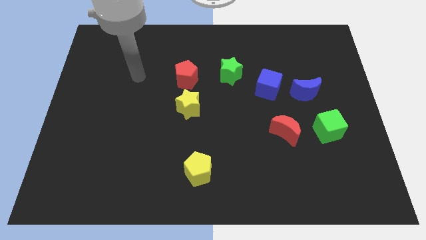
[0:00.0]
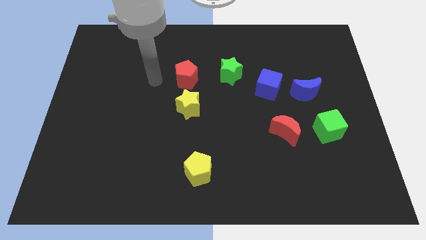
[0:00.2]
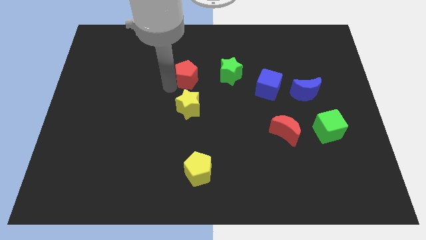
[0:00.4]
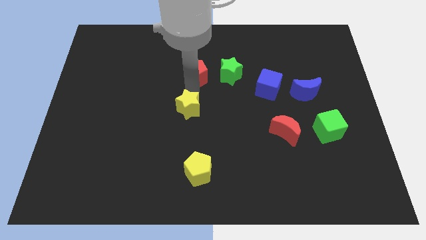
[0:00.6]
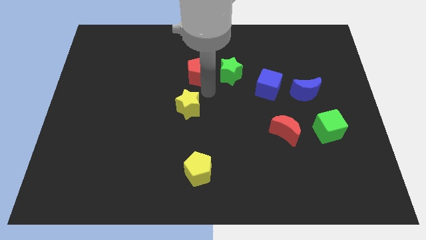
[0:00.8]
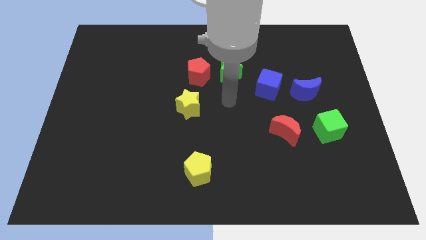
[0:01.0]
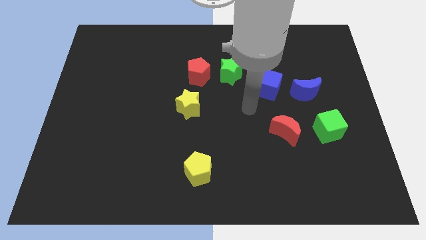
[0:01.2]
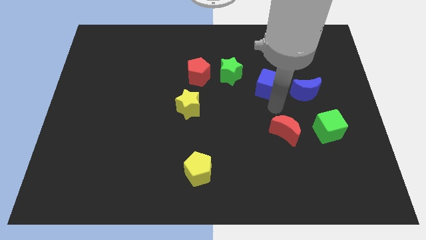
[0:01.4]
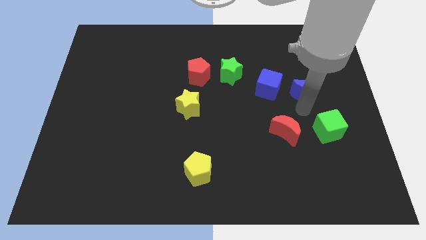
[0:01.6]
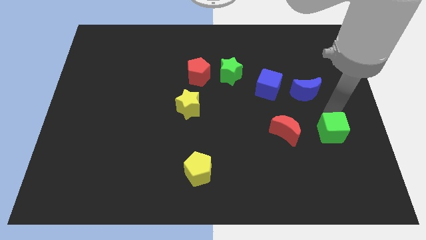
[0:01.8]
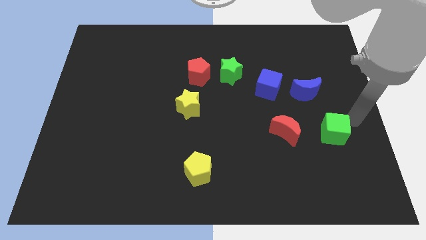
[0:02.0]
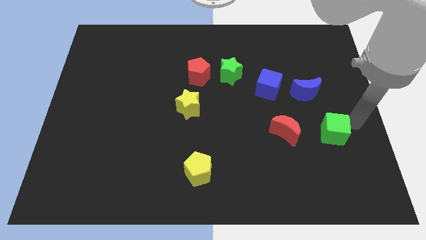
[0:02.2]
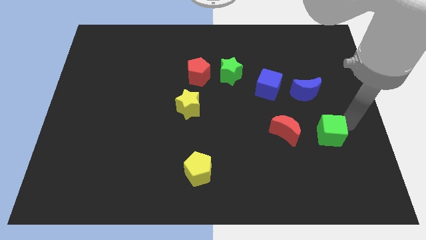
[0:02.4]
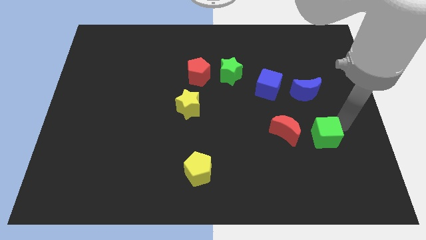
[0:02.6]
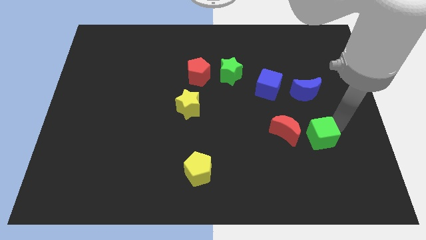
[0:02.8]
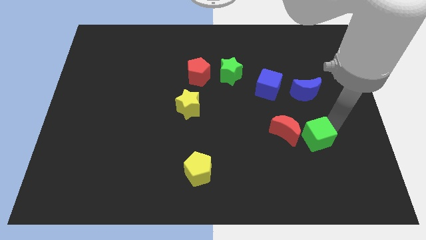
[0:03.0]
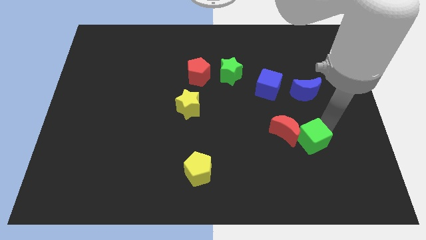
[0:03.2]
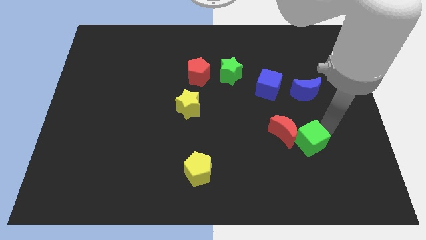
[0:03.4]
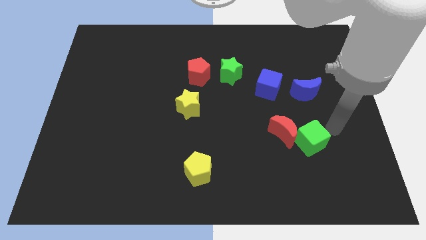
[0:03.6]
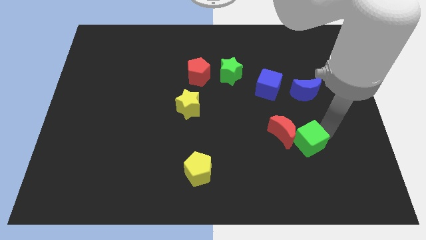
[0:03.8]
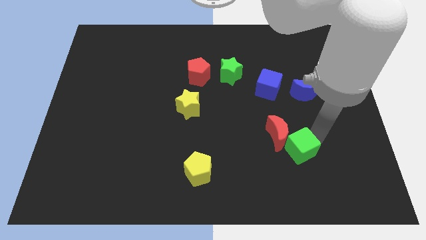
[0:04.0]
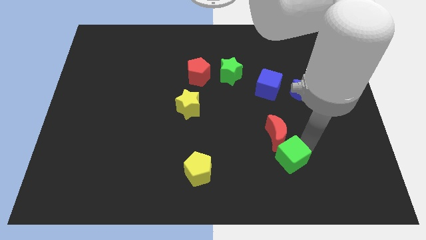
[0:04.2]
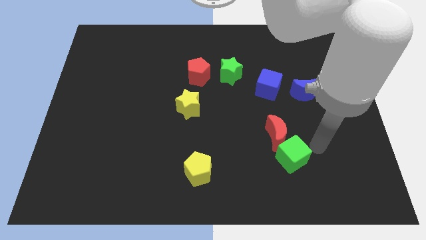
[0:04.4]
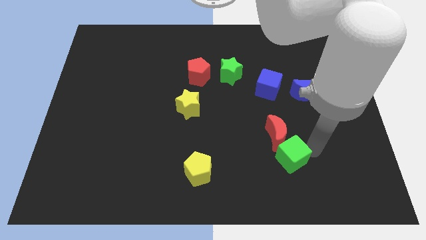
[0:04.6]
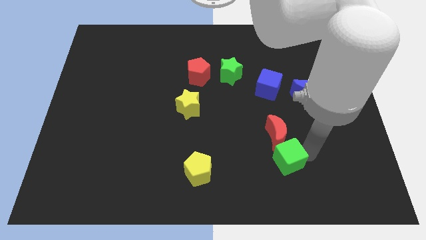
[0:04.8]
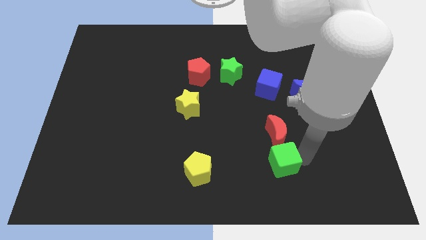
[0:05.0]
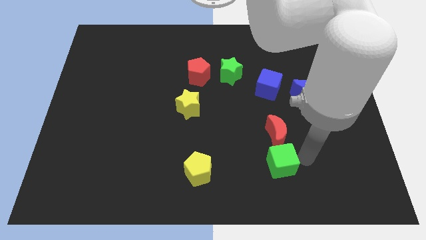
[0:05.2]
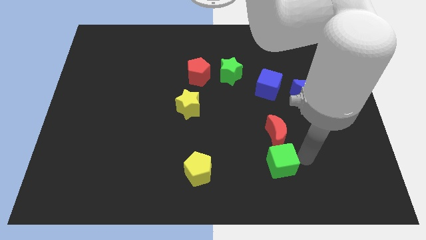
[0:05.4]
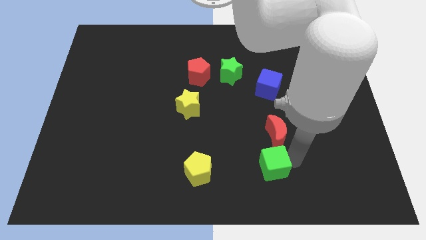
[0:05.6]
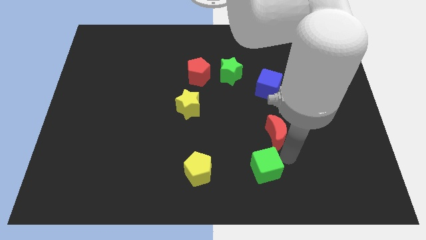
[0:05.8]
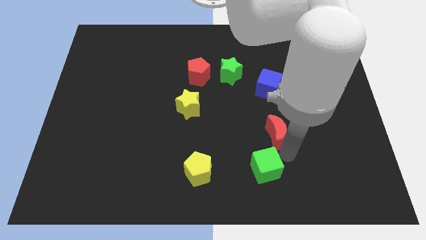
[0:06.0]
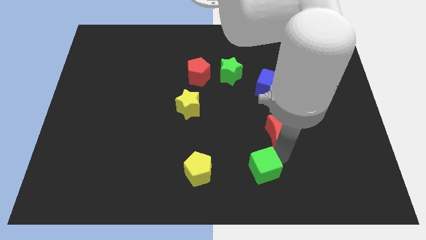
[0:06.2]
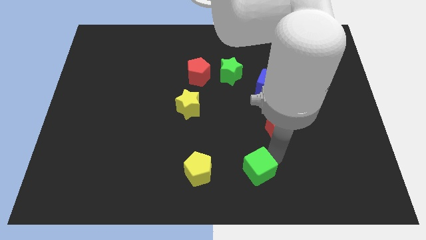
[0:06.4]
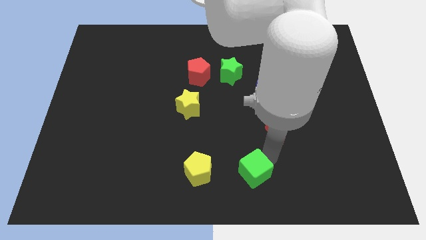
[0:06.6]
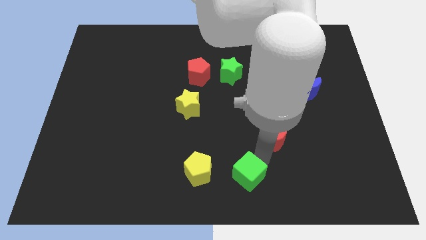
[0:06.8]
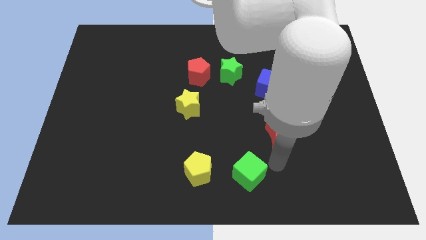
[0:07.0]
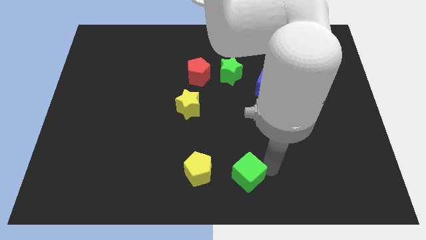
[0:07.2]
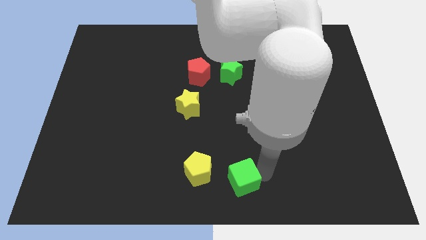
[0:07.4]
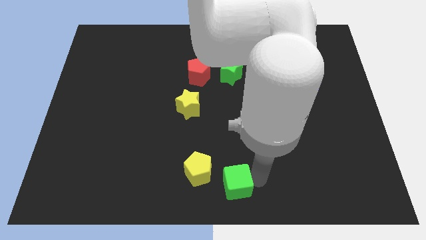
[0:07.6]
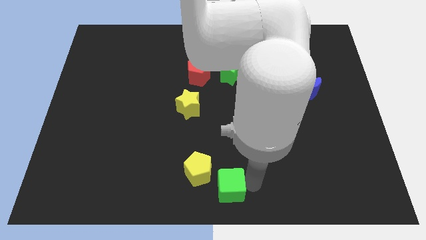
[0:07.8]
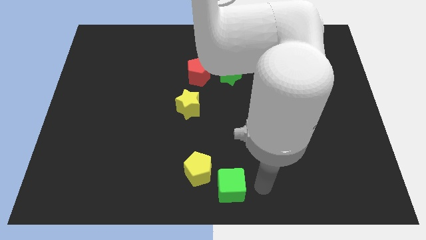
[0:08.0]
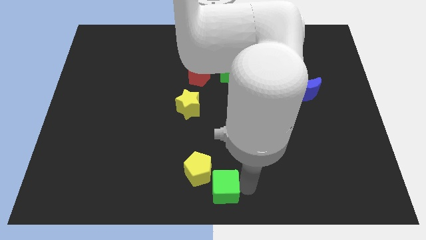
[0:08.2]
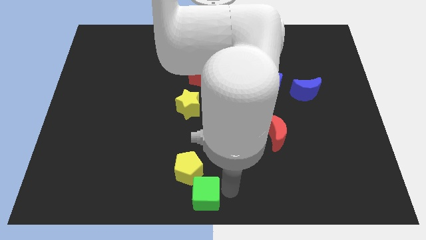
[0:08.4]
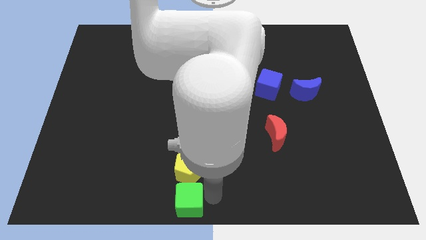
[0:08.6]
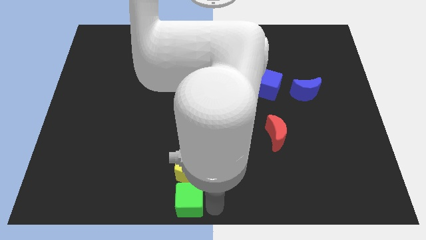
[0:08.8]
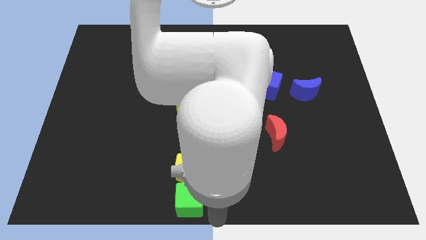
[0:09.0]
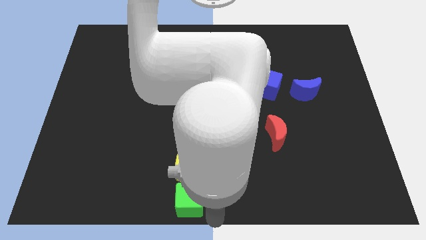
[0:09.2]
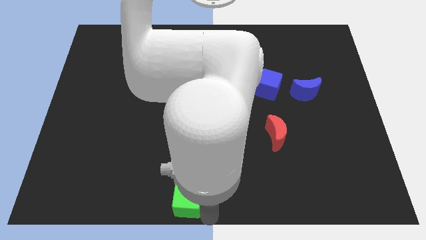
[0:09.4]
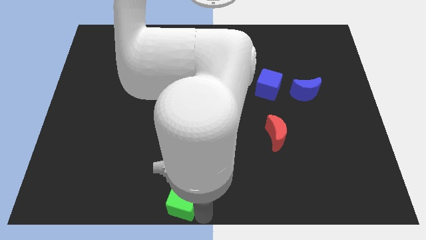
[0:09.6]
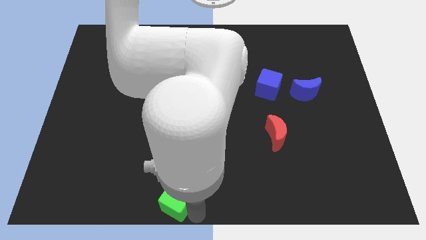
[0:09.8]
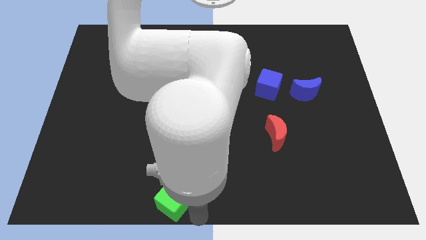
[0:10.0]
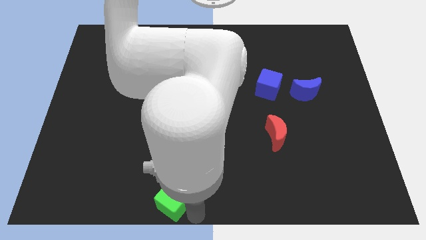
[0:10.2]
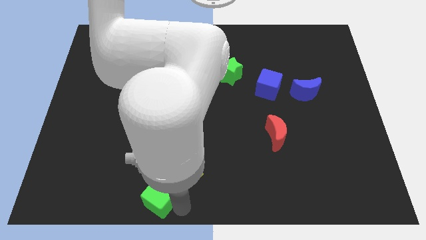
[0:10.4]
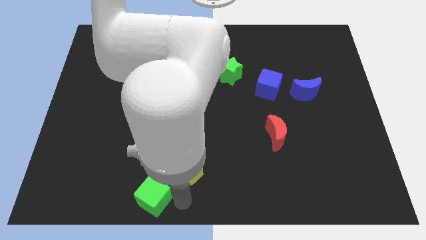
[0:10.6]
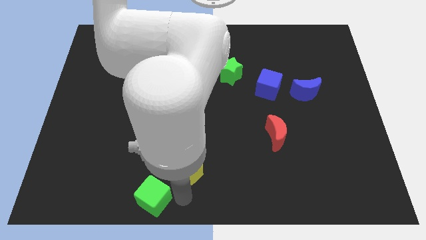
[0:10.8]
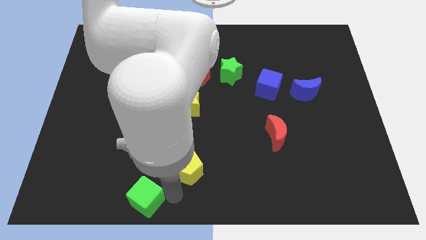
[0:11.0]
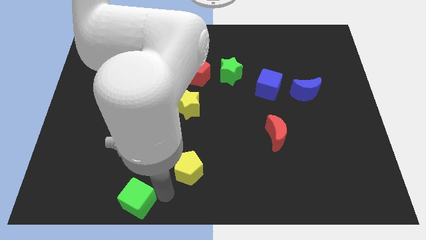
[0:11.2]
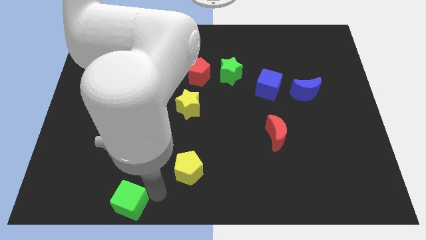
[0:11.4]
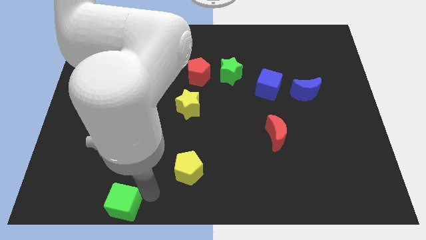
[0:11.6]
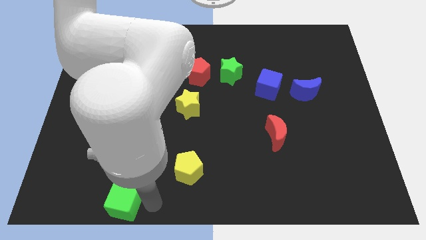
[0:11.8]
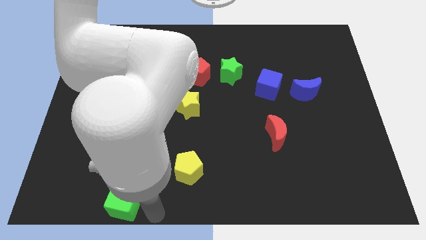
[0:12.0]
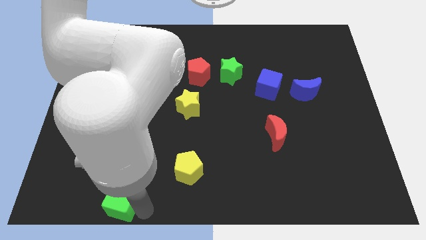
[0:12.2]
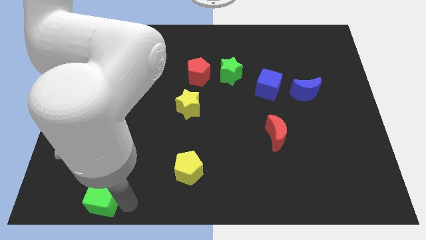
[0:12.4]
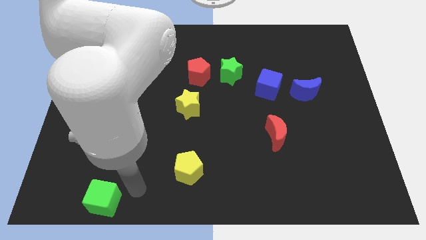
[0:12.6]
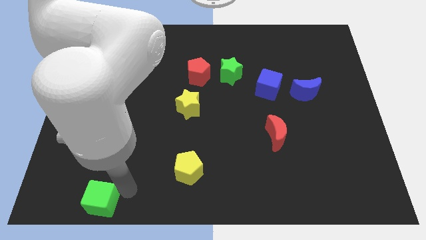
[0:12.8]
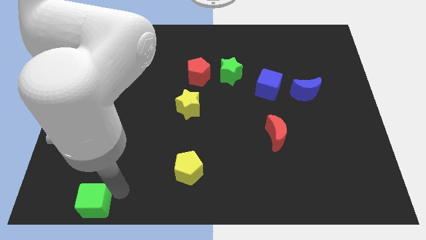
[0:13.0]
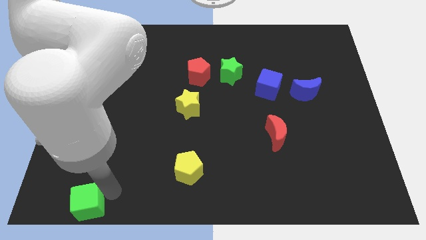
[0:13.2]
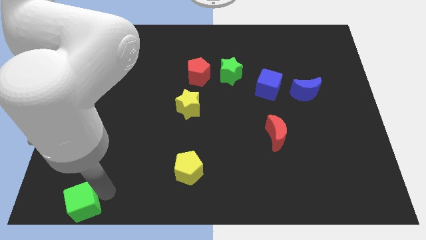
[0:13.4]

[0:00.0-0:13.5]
push the green cube to the lower left corner

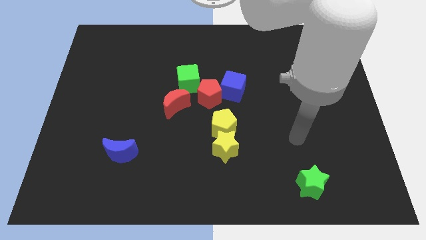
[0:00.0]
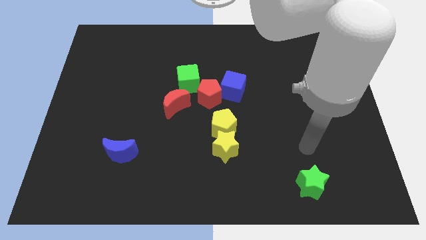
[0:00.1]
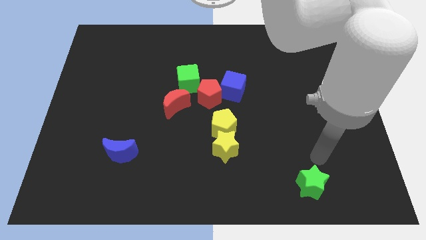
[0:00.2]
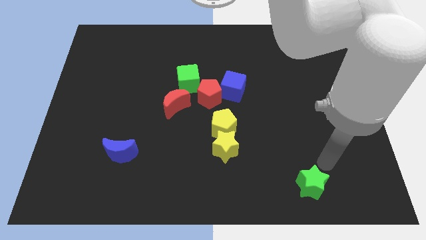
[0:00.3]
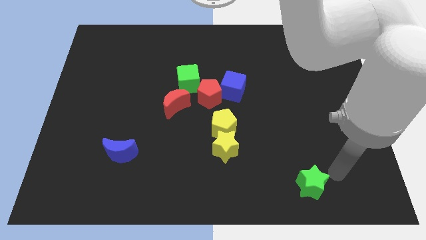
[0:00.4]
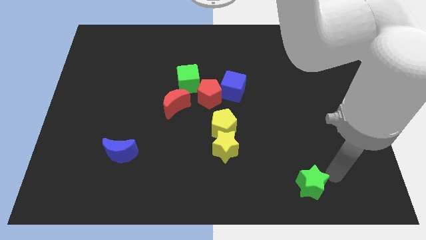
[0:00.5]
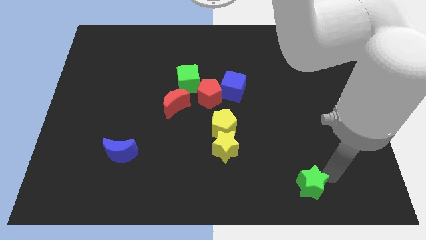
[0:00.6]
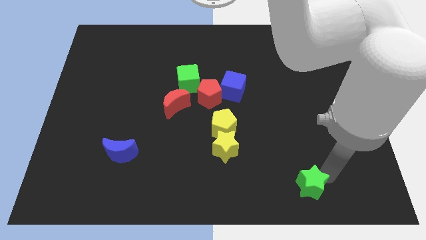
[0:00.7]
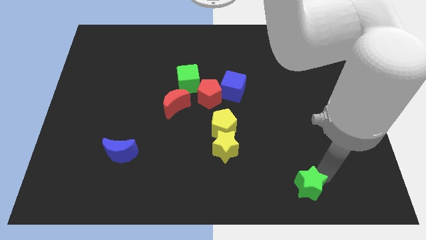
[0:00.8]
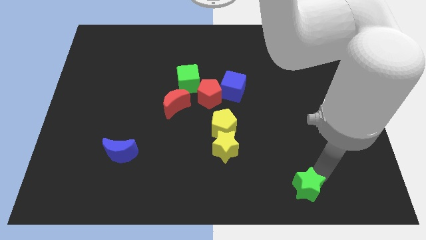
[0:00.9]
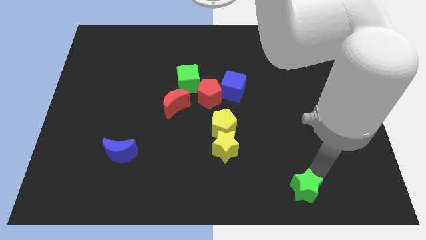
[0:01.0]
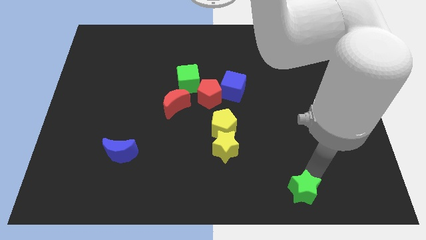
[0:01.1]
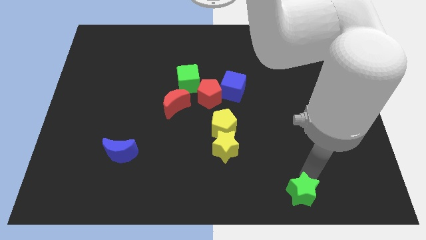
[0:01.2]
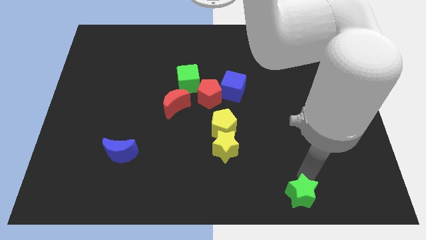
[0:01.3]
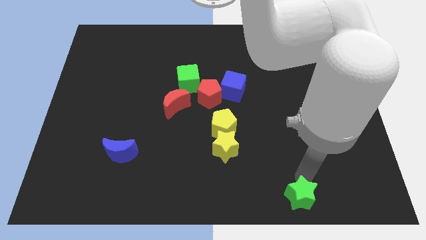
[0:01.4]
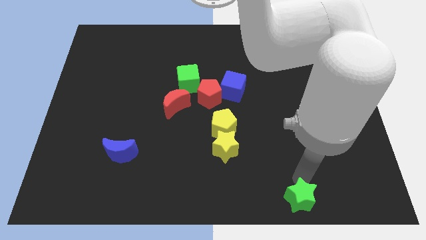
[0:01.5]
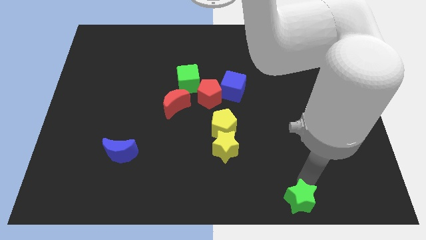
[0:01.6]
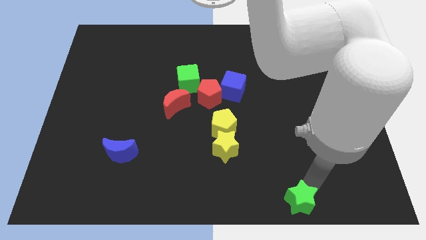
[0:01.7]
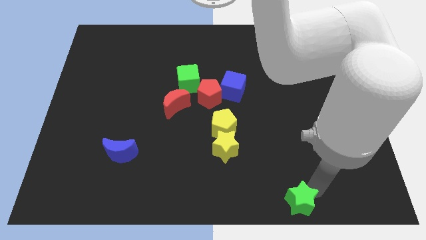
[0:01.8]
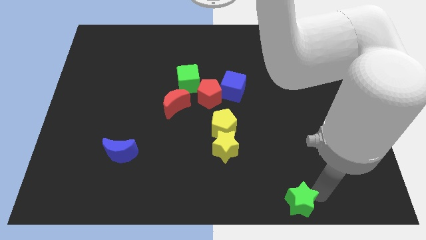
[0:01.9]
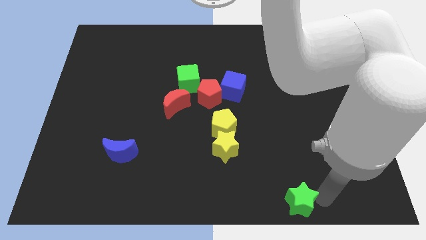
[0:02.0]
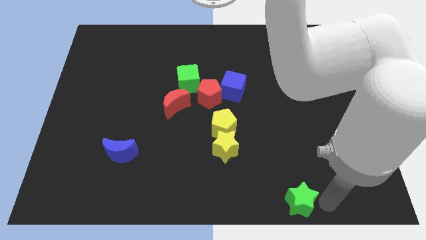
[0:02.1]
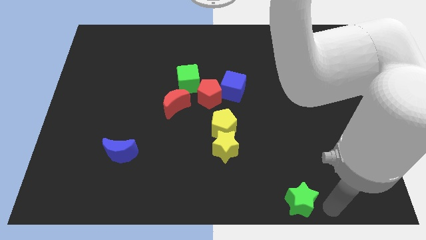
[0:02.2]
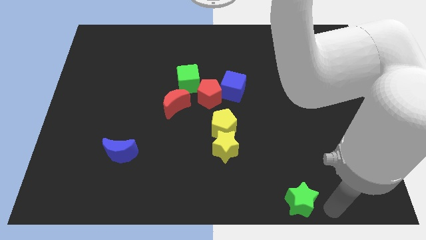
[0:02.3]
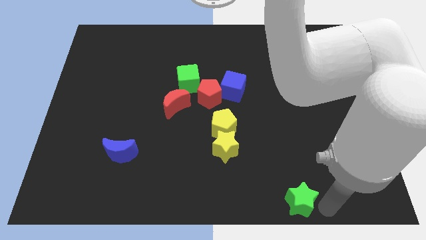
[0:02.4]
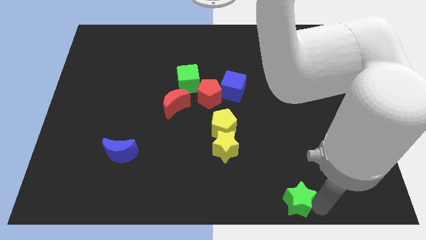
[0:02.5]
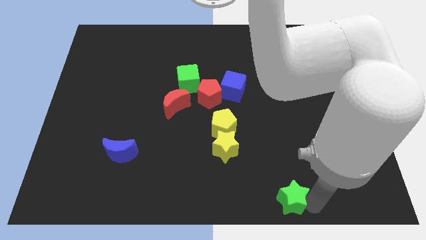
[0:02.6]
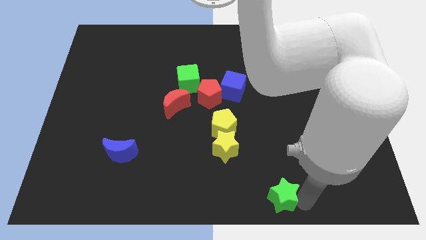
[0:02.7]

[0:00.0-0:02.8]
slide the green star to the bottom
